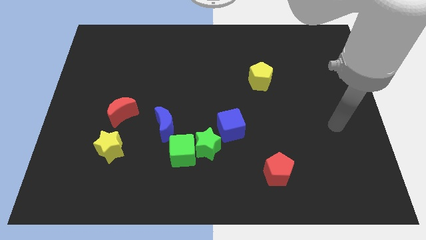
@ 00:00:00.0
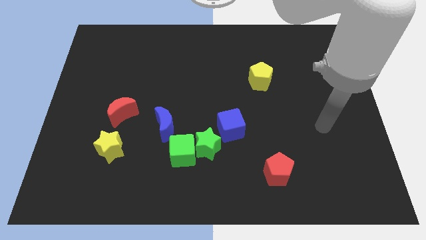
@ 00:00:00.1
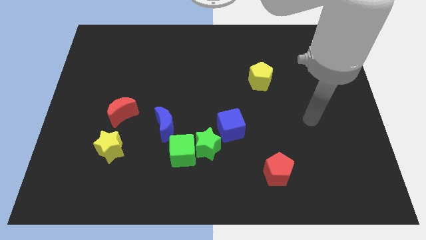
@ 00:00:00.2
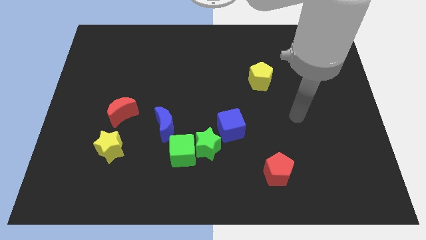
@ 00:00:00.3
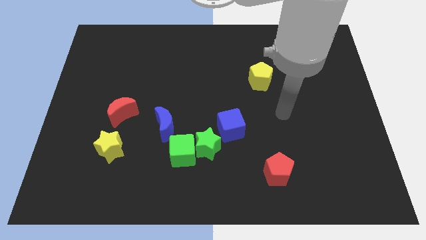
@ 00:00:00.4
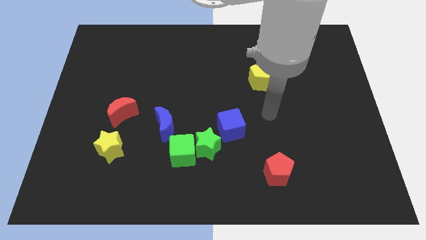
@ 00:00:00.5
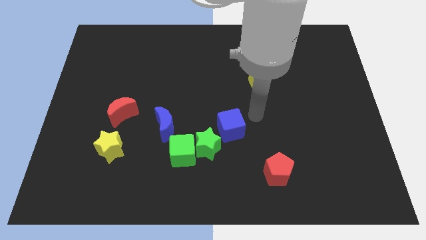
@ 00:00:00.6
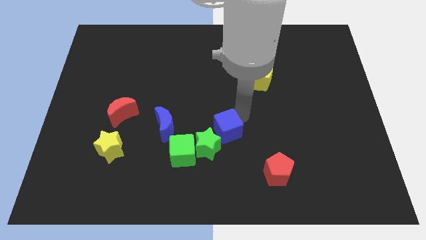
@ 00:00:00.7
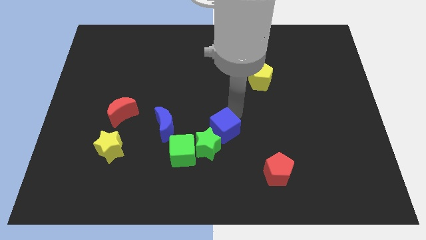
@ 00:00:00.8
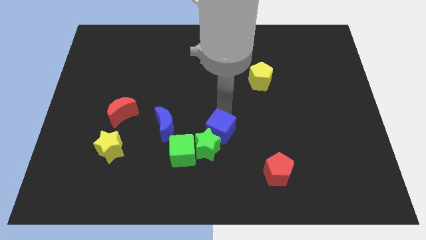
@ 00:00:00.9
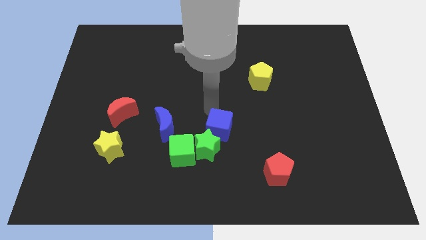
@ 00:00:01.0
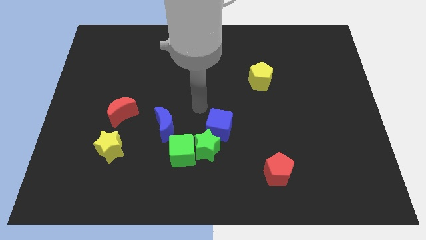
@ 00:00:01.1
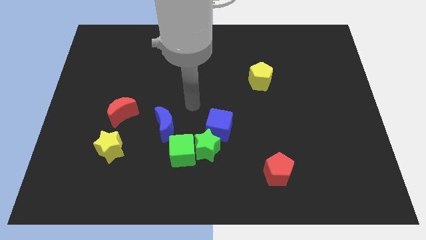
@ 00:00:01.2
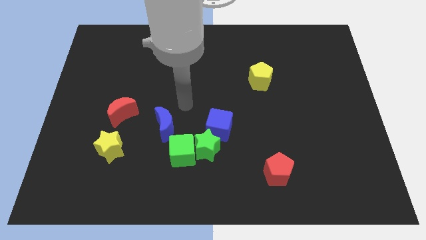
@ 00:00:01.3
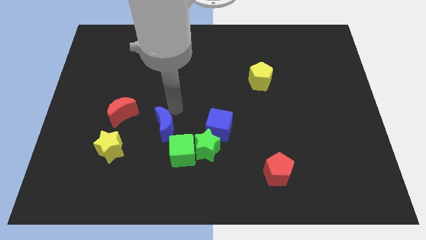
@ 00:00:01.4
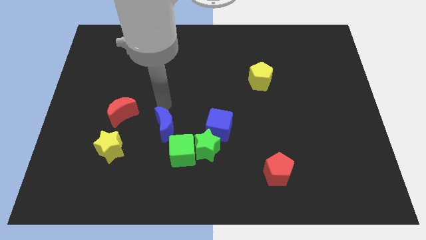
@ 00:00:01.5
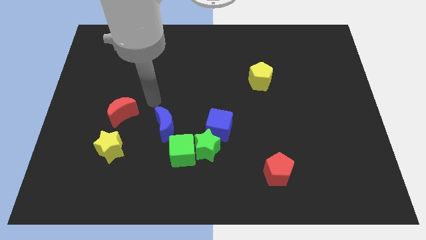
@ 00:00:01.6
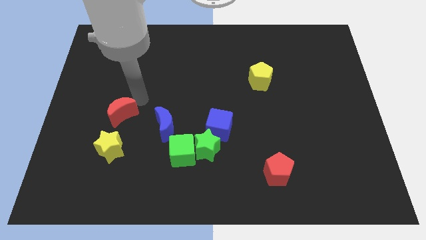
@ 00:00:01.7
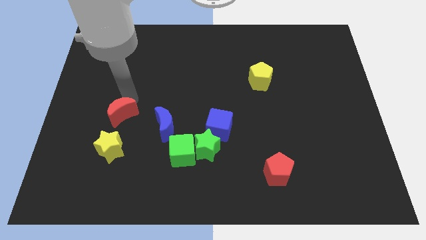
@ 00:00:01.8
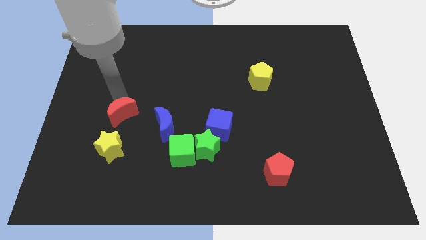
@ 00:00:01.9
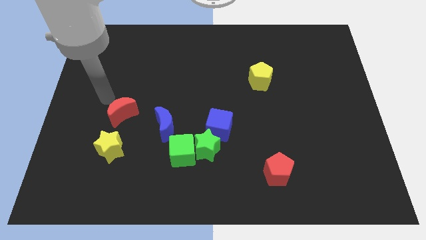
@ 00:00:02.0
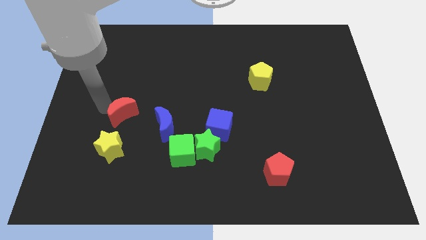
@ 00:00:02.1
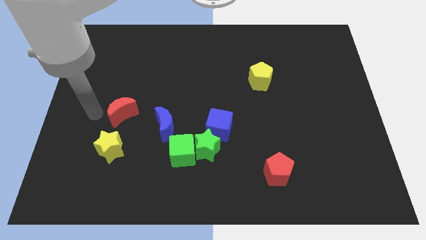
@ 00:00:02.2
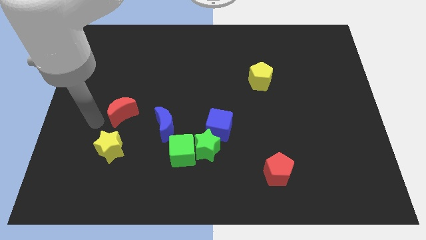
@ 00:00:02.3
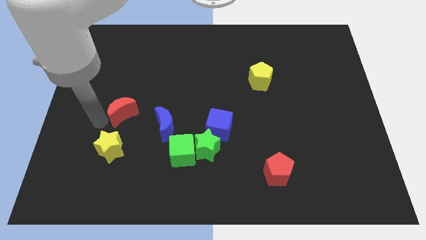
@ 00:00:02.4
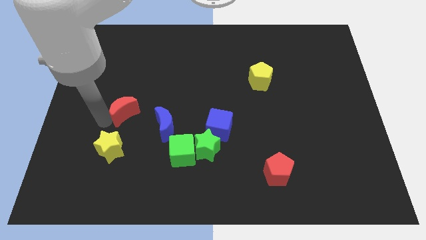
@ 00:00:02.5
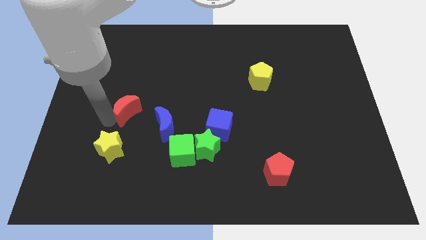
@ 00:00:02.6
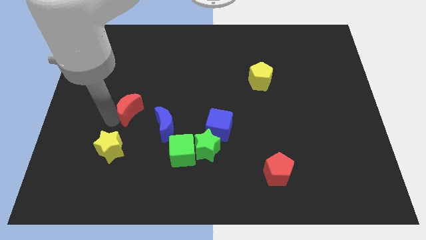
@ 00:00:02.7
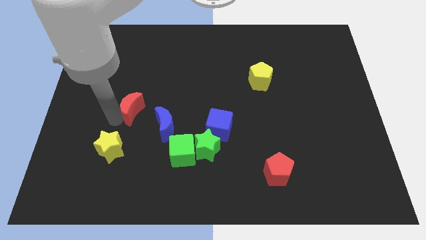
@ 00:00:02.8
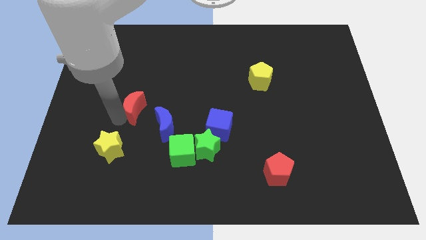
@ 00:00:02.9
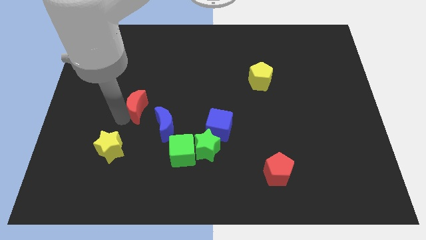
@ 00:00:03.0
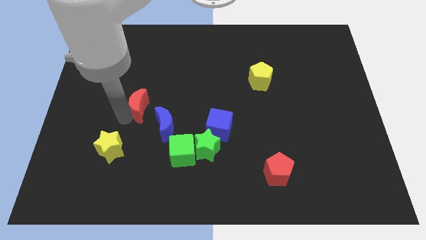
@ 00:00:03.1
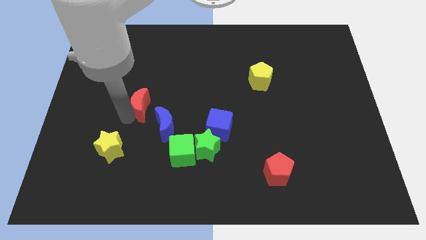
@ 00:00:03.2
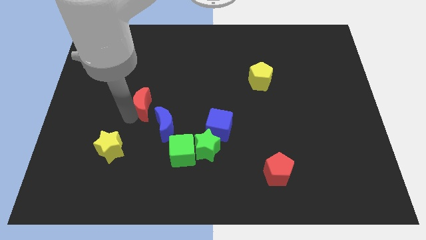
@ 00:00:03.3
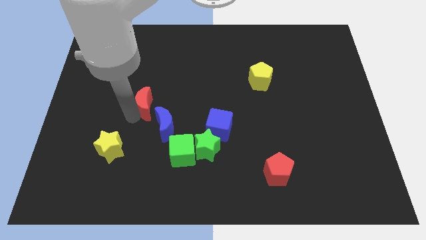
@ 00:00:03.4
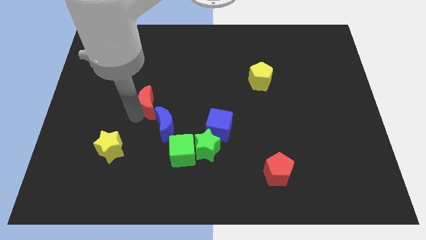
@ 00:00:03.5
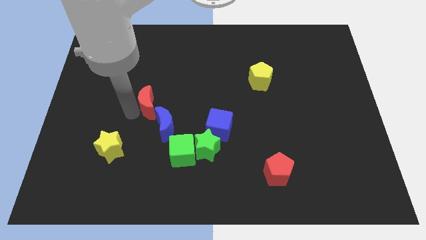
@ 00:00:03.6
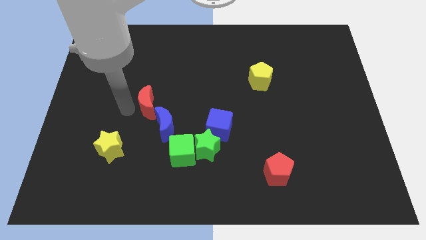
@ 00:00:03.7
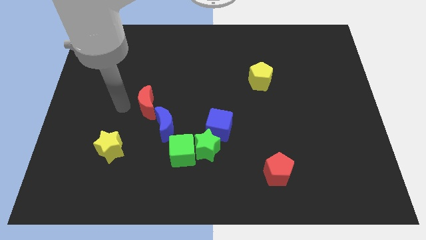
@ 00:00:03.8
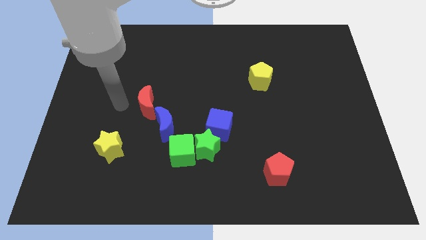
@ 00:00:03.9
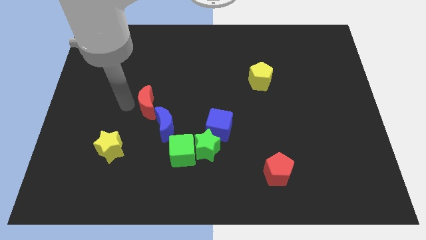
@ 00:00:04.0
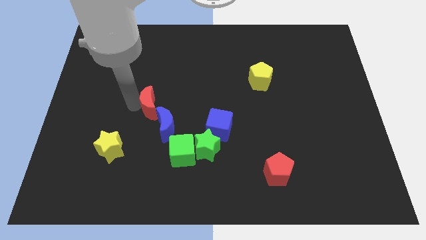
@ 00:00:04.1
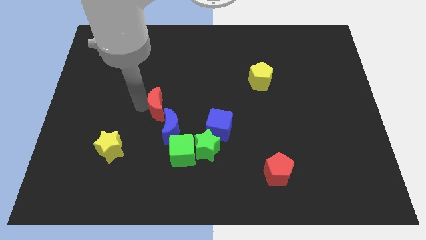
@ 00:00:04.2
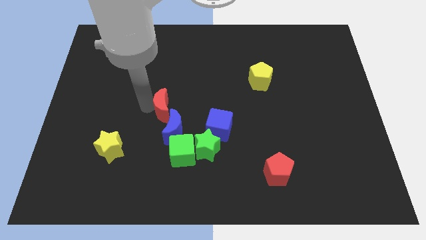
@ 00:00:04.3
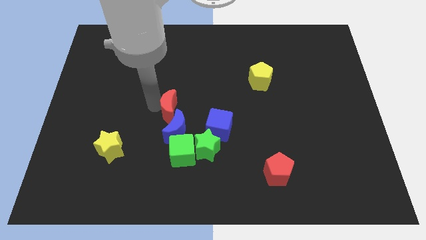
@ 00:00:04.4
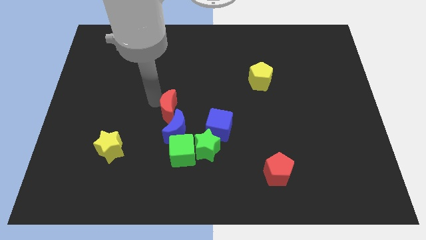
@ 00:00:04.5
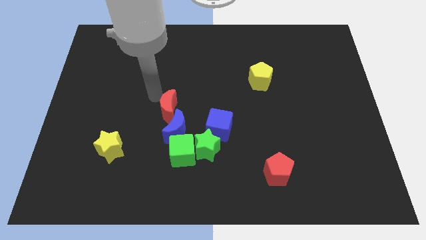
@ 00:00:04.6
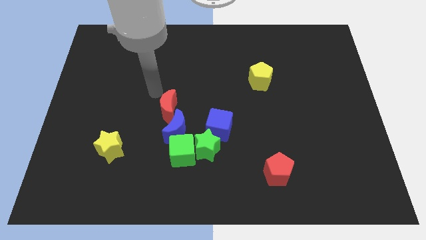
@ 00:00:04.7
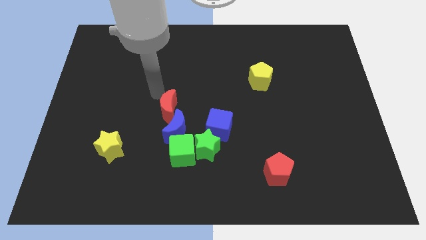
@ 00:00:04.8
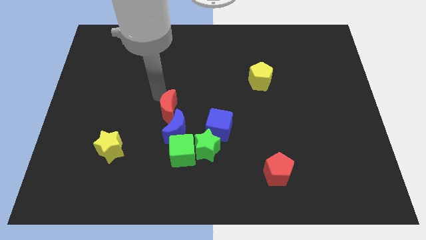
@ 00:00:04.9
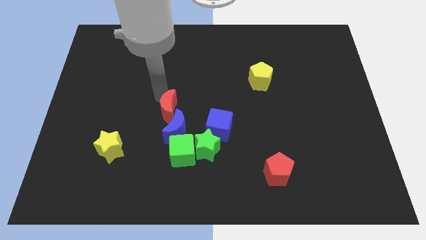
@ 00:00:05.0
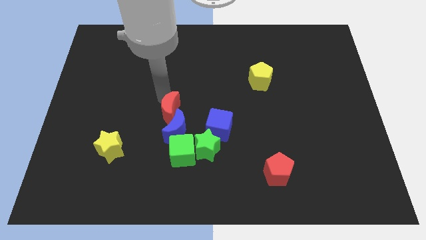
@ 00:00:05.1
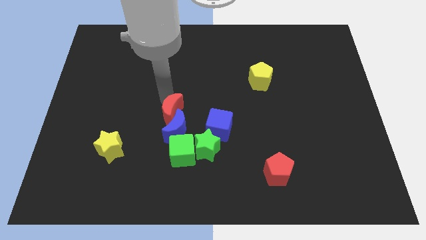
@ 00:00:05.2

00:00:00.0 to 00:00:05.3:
put the red moon to the top left of the green star

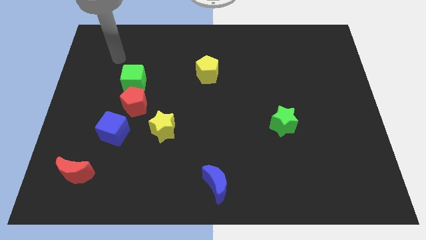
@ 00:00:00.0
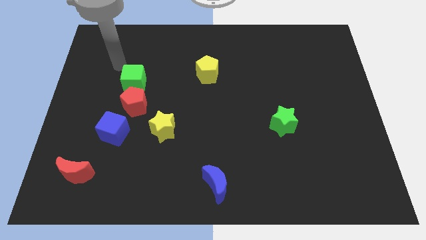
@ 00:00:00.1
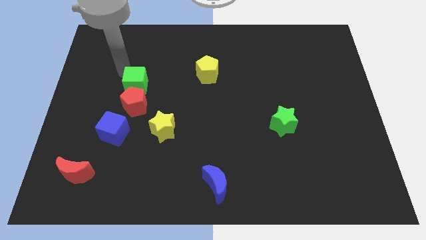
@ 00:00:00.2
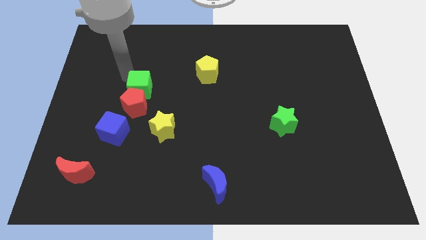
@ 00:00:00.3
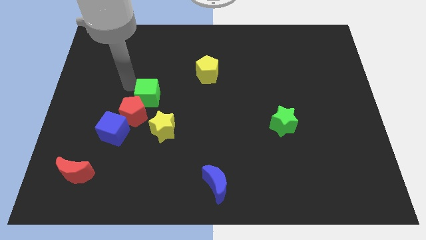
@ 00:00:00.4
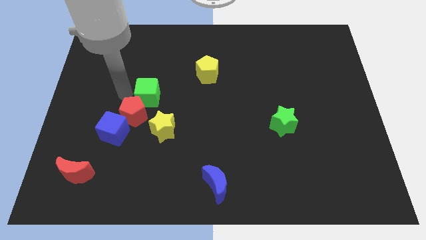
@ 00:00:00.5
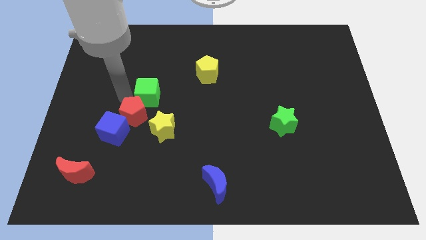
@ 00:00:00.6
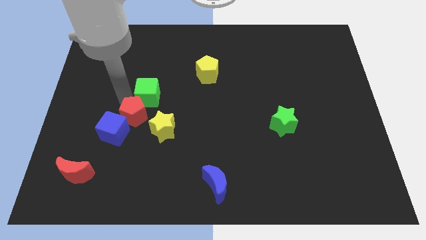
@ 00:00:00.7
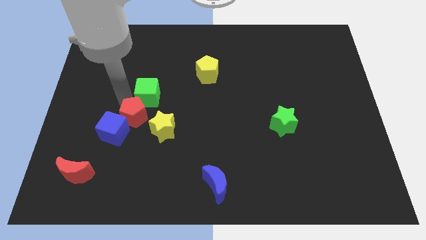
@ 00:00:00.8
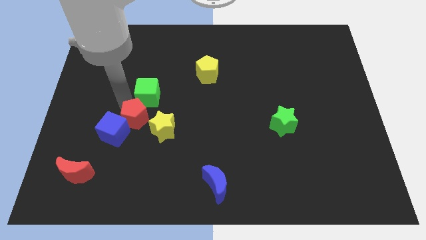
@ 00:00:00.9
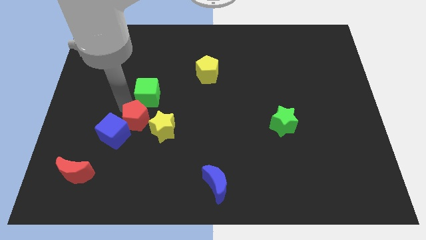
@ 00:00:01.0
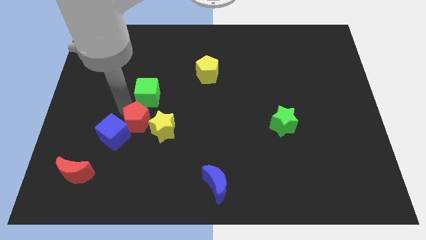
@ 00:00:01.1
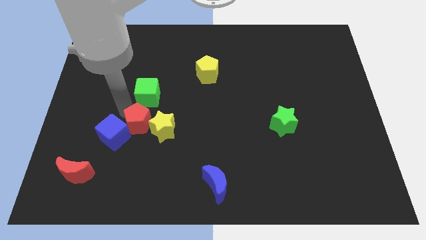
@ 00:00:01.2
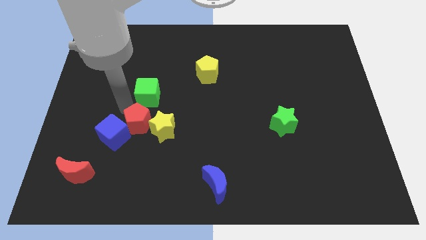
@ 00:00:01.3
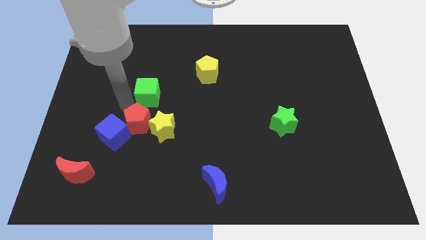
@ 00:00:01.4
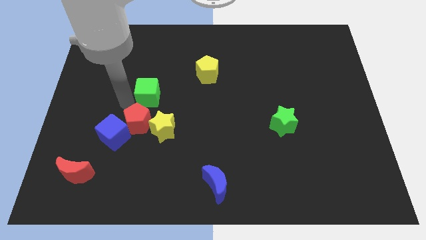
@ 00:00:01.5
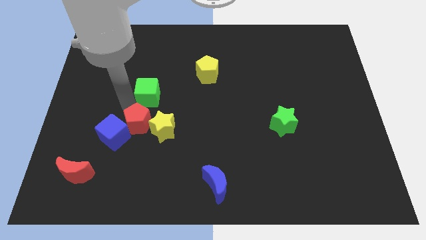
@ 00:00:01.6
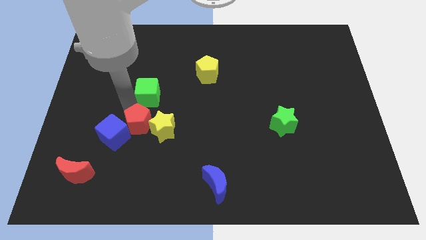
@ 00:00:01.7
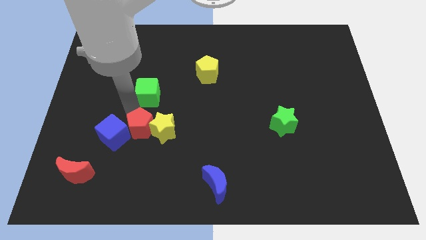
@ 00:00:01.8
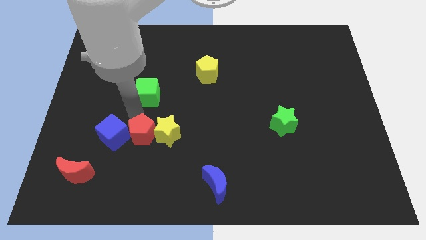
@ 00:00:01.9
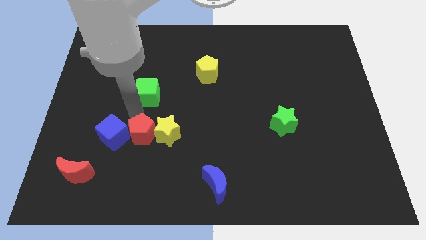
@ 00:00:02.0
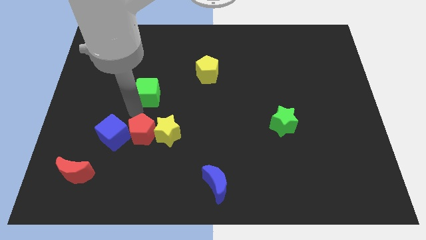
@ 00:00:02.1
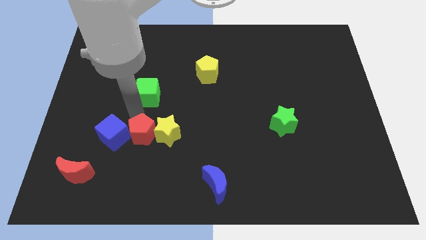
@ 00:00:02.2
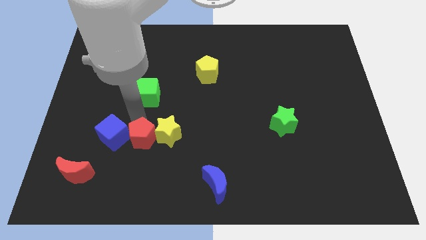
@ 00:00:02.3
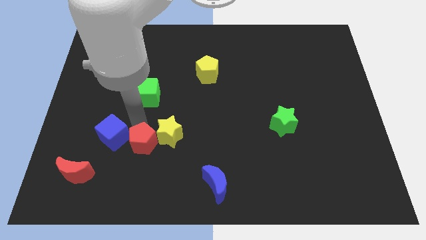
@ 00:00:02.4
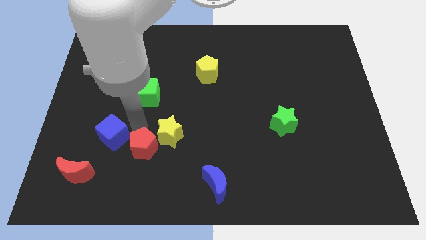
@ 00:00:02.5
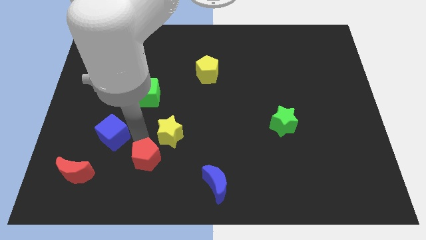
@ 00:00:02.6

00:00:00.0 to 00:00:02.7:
push the red pentagon below the yellow star
